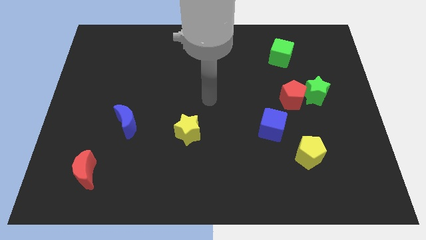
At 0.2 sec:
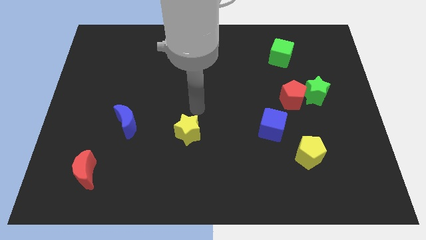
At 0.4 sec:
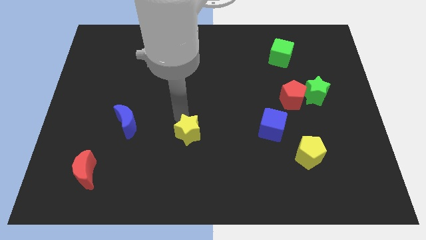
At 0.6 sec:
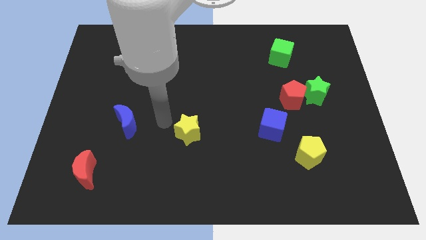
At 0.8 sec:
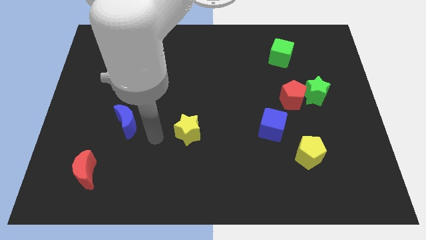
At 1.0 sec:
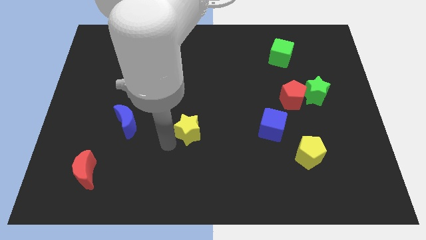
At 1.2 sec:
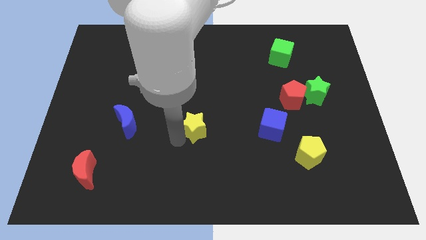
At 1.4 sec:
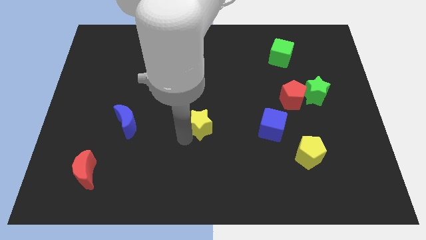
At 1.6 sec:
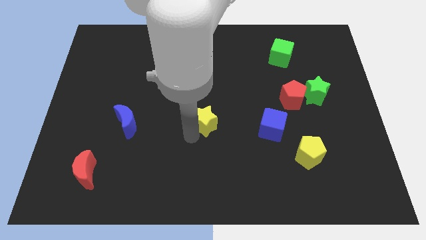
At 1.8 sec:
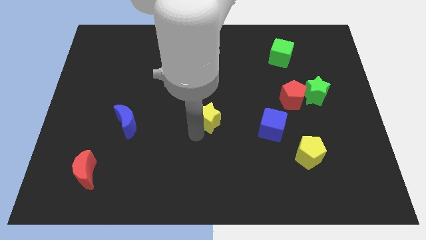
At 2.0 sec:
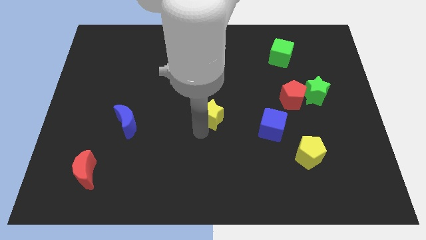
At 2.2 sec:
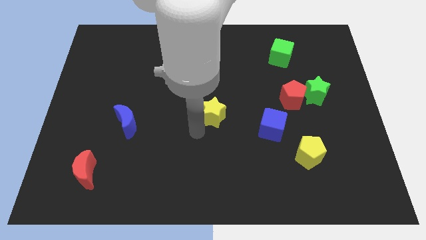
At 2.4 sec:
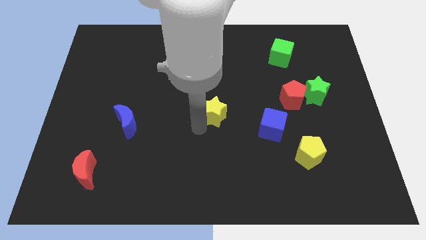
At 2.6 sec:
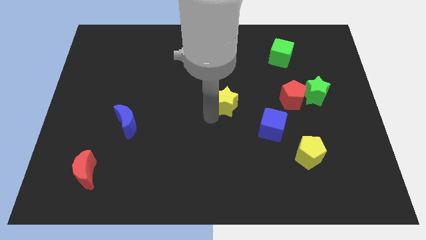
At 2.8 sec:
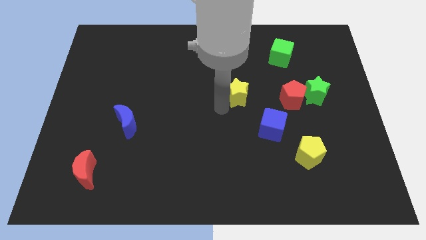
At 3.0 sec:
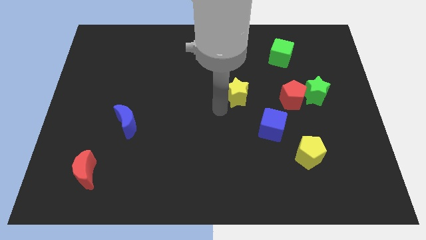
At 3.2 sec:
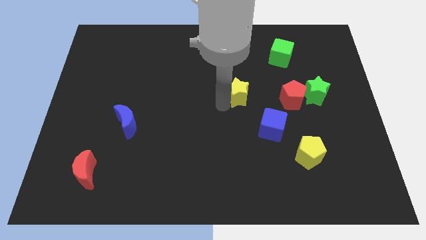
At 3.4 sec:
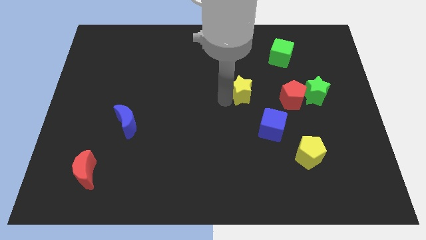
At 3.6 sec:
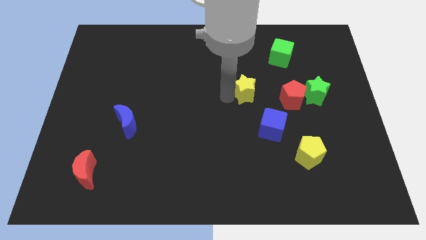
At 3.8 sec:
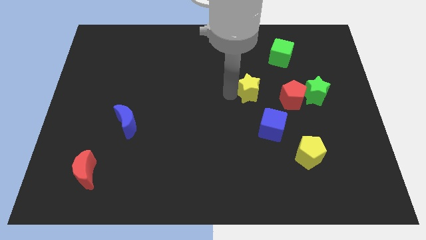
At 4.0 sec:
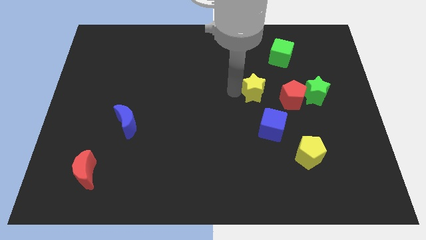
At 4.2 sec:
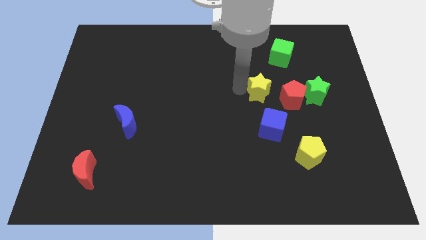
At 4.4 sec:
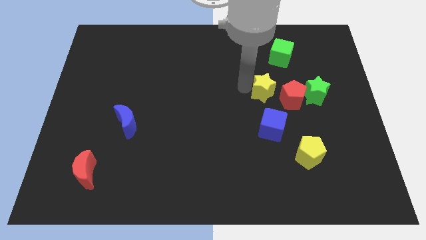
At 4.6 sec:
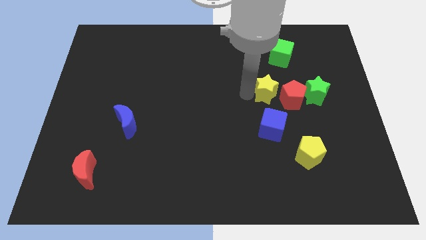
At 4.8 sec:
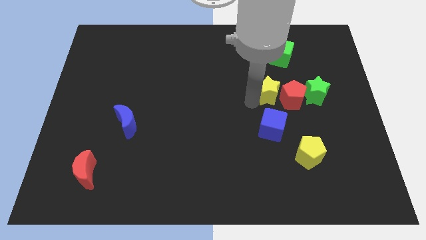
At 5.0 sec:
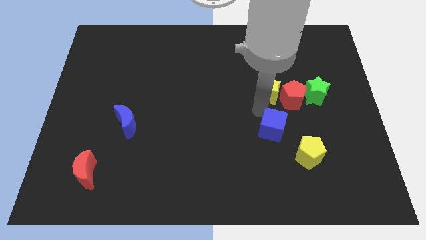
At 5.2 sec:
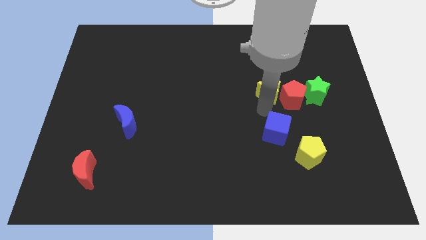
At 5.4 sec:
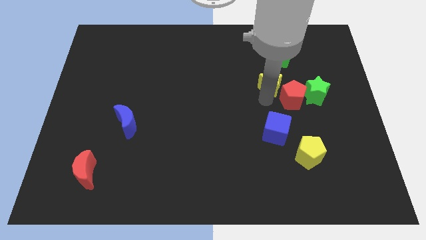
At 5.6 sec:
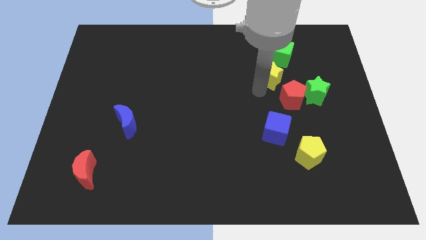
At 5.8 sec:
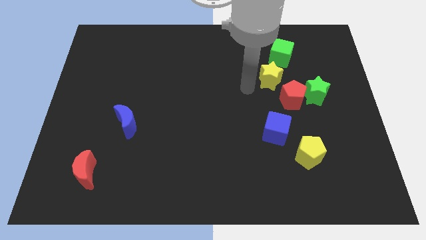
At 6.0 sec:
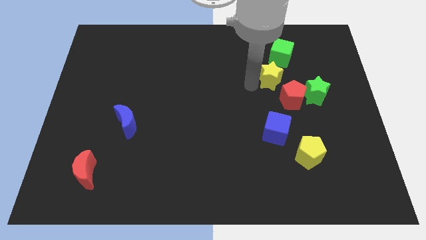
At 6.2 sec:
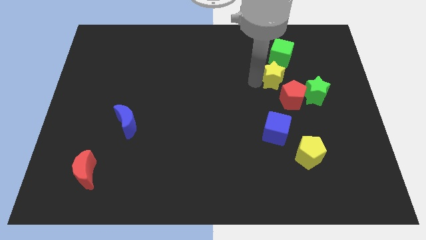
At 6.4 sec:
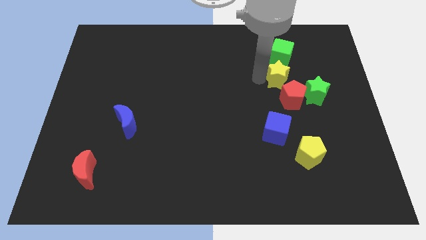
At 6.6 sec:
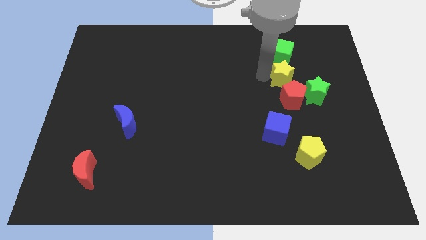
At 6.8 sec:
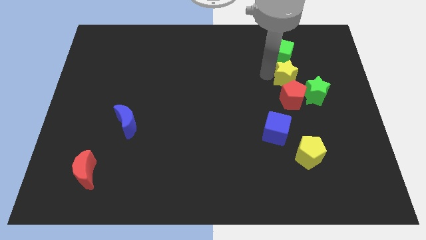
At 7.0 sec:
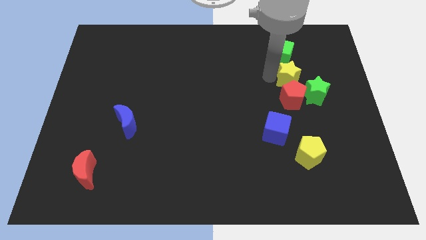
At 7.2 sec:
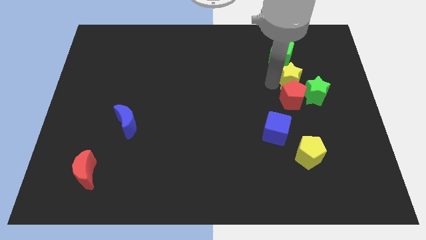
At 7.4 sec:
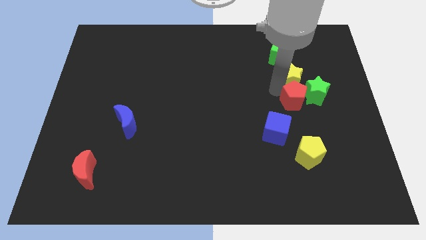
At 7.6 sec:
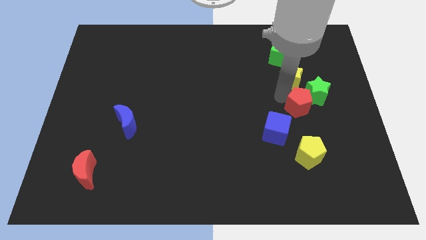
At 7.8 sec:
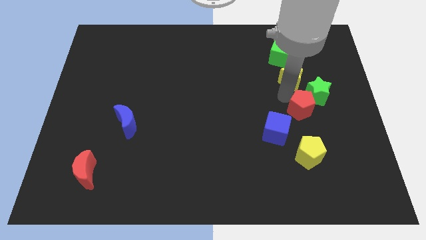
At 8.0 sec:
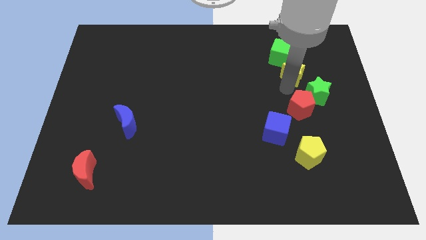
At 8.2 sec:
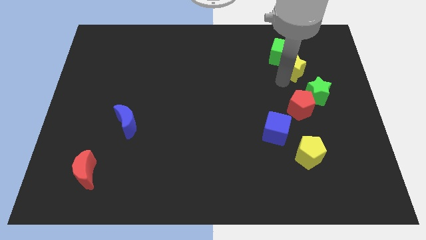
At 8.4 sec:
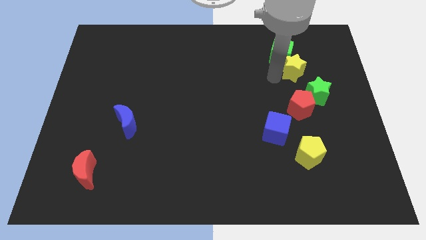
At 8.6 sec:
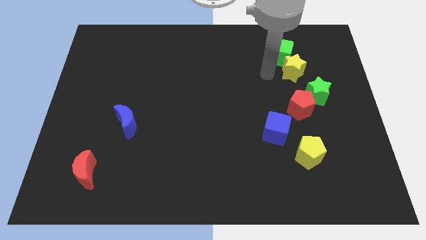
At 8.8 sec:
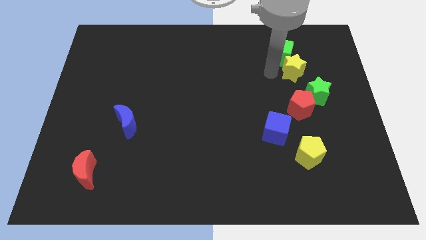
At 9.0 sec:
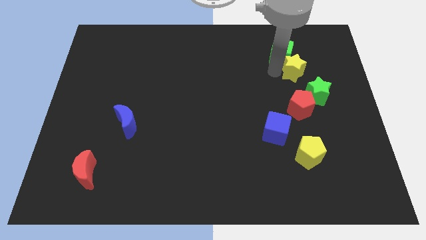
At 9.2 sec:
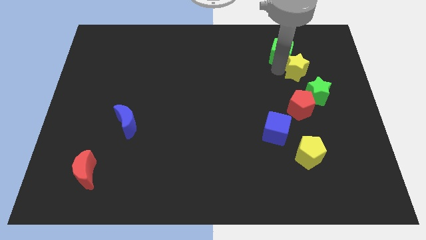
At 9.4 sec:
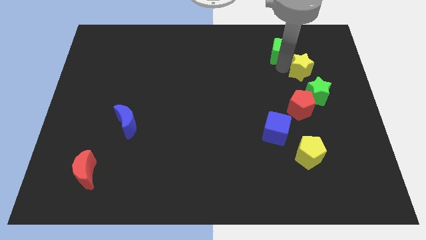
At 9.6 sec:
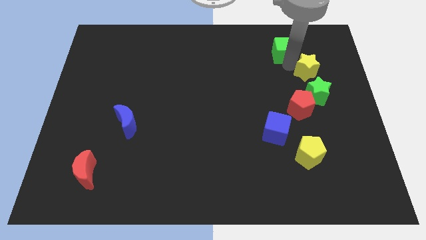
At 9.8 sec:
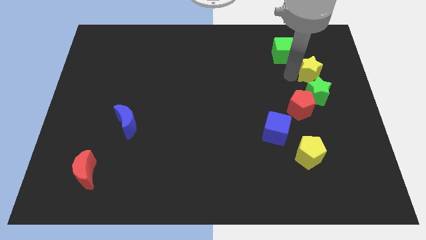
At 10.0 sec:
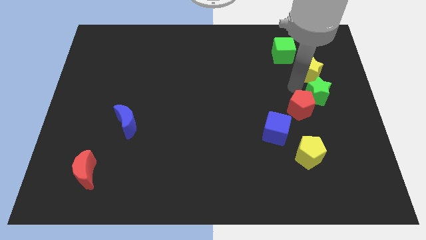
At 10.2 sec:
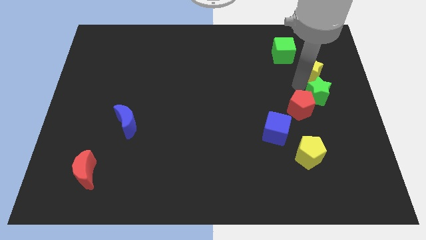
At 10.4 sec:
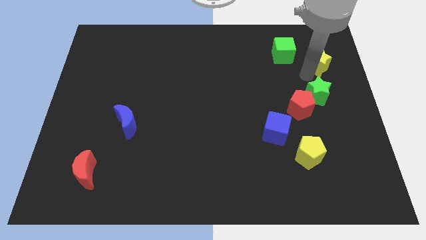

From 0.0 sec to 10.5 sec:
move the yellow star to the right side of the green cube

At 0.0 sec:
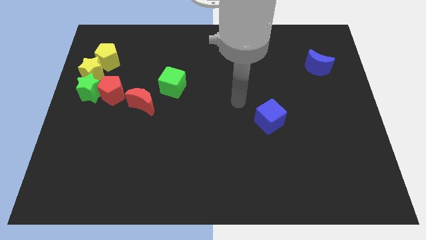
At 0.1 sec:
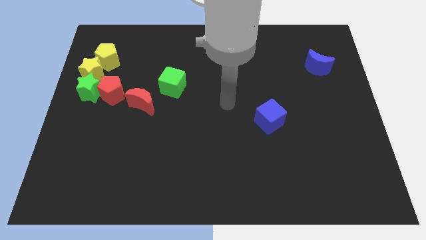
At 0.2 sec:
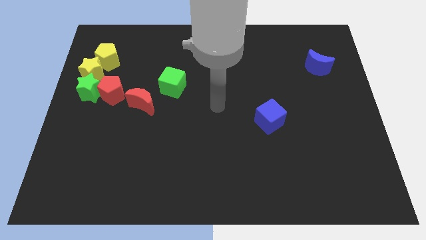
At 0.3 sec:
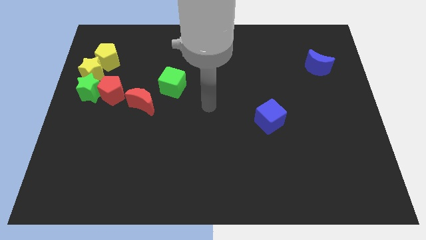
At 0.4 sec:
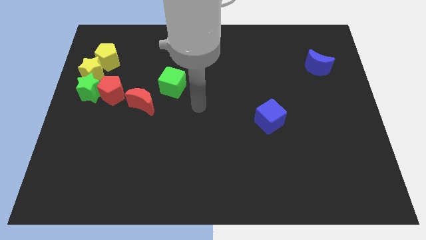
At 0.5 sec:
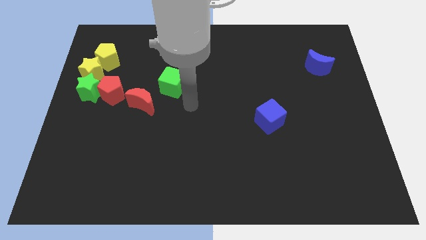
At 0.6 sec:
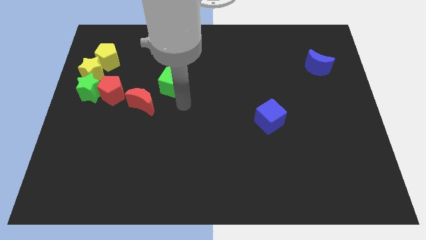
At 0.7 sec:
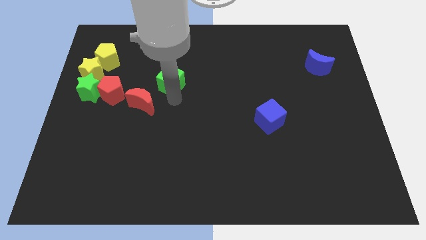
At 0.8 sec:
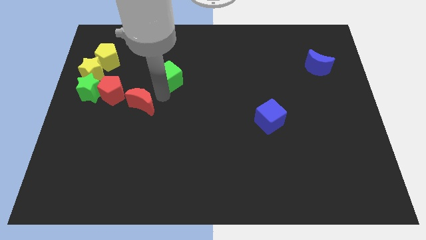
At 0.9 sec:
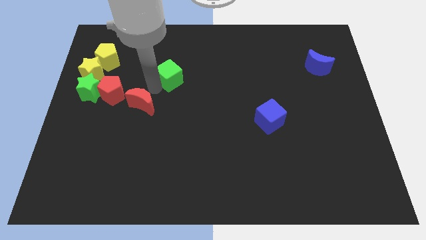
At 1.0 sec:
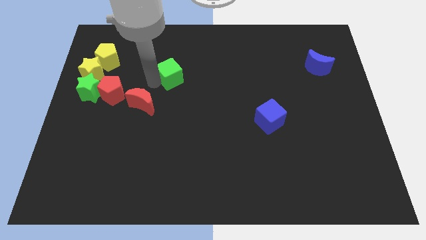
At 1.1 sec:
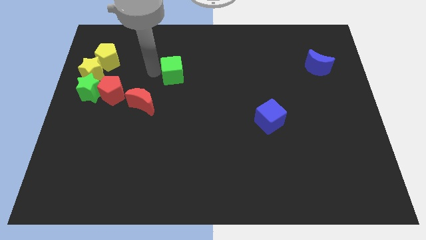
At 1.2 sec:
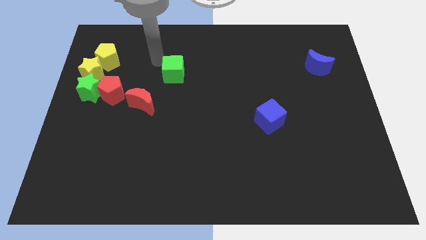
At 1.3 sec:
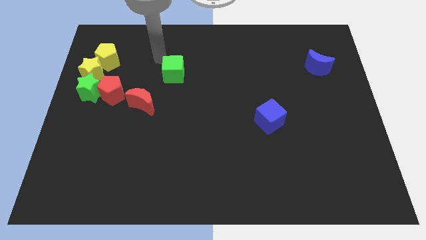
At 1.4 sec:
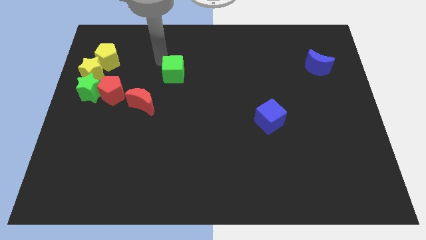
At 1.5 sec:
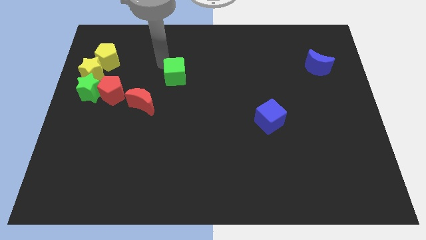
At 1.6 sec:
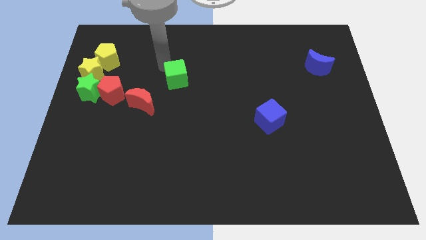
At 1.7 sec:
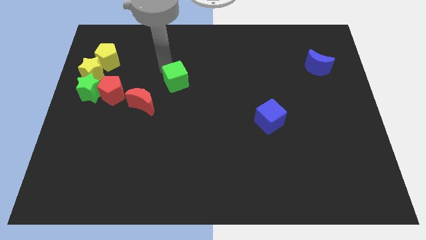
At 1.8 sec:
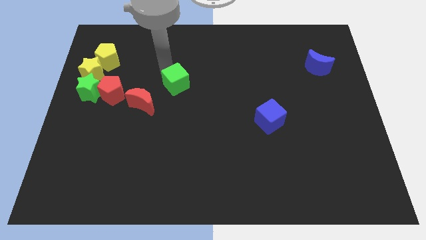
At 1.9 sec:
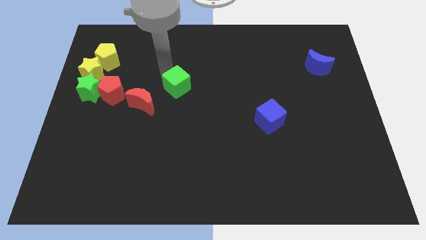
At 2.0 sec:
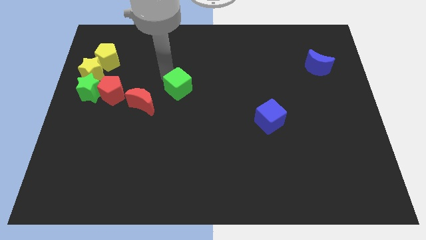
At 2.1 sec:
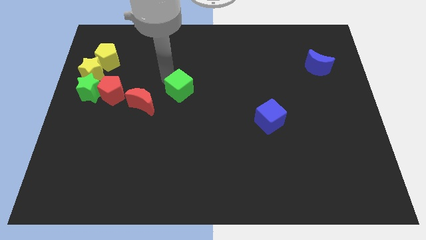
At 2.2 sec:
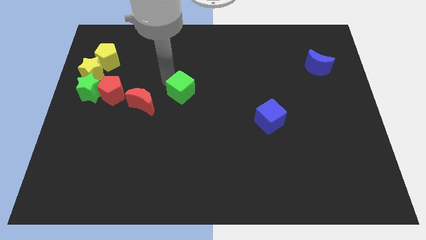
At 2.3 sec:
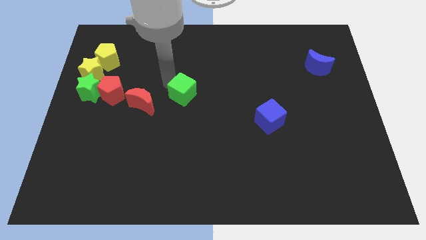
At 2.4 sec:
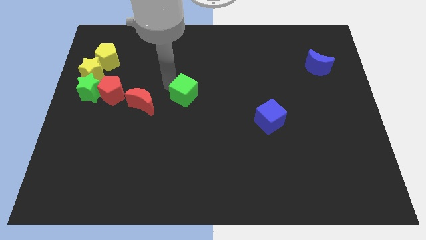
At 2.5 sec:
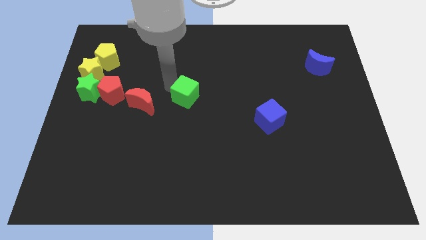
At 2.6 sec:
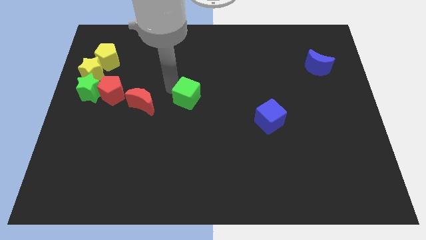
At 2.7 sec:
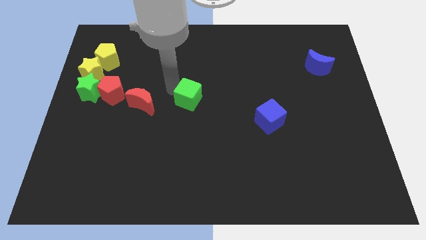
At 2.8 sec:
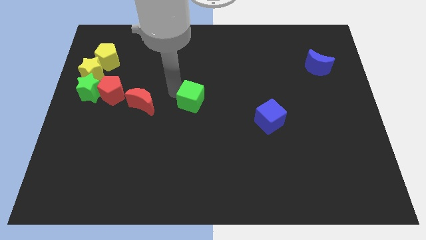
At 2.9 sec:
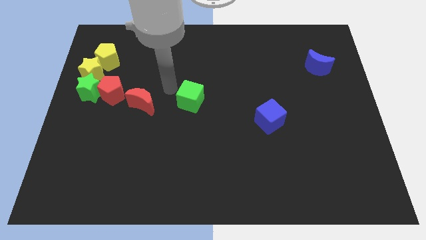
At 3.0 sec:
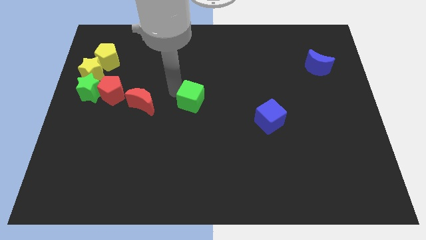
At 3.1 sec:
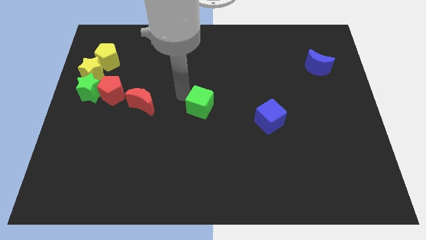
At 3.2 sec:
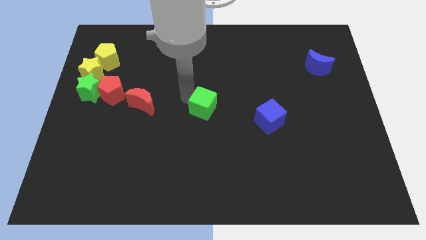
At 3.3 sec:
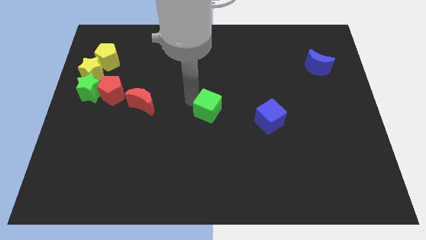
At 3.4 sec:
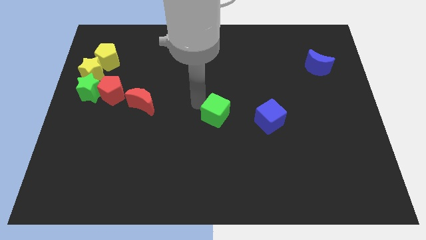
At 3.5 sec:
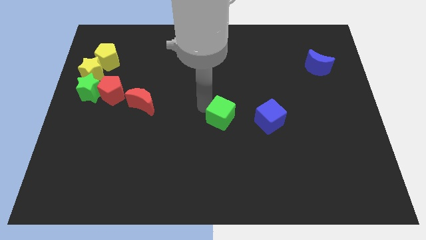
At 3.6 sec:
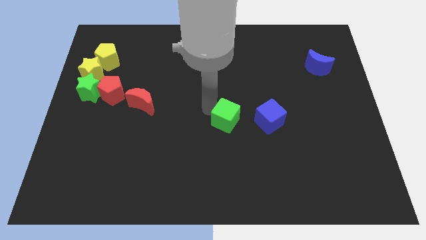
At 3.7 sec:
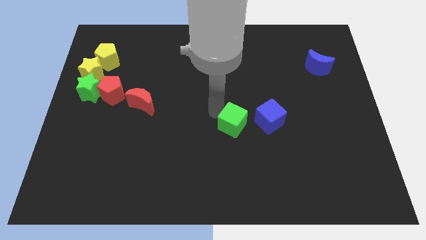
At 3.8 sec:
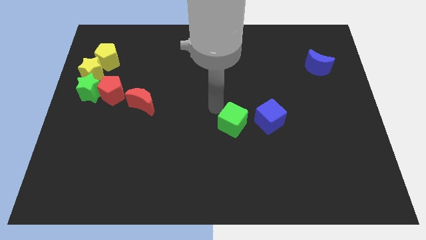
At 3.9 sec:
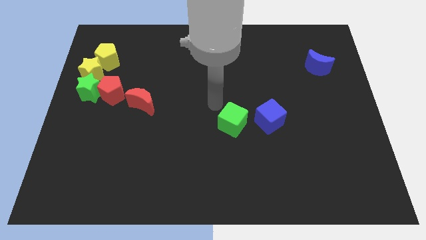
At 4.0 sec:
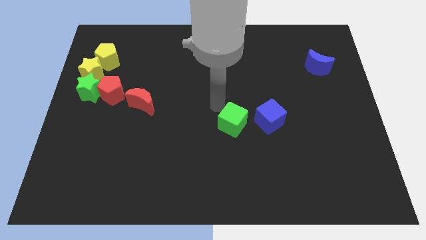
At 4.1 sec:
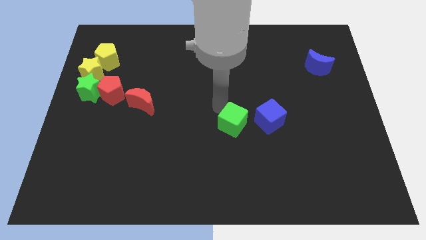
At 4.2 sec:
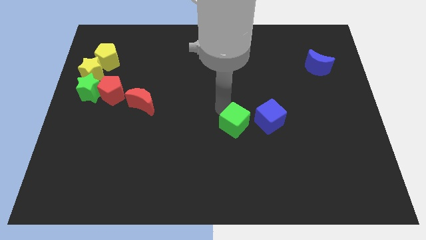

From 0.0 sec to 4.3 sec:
push the green cube diagonally down and to the left of the blue cube
